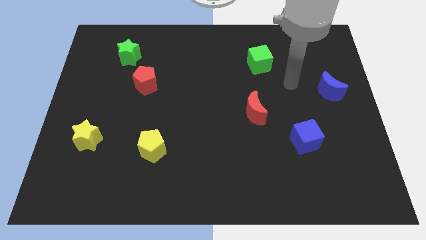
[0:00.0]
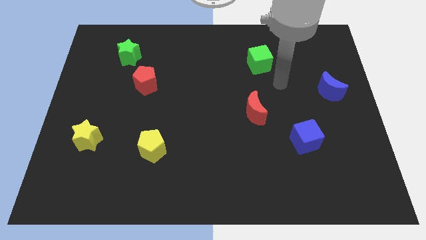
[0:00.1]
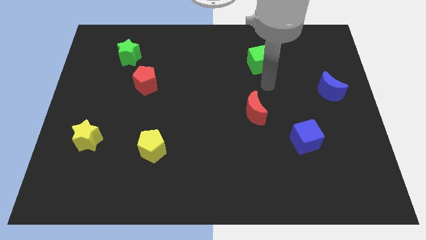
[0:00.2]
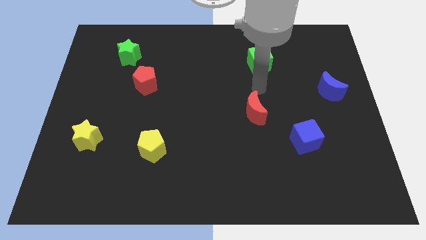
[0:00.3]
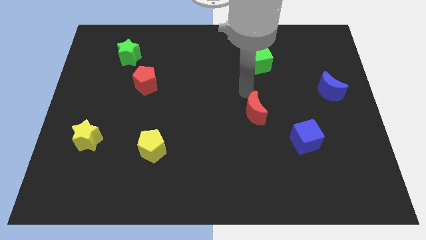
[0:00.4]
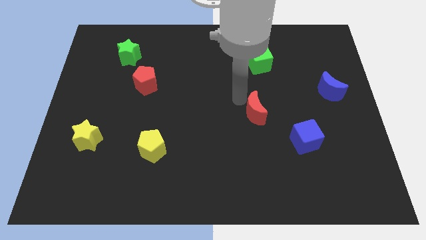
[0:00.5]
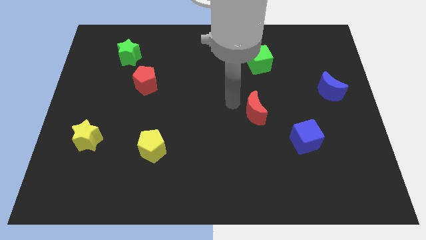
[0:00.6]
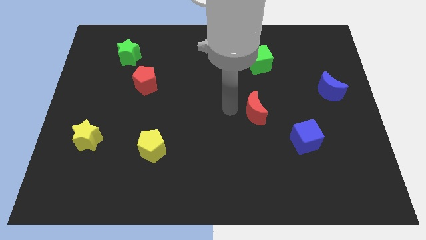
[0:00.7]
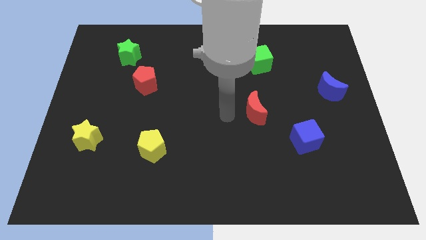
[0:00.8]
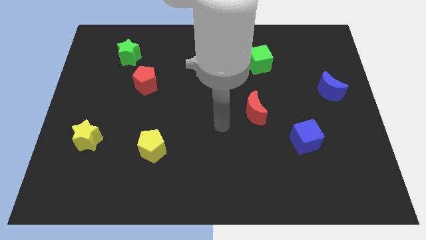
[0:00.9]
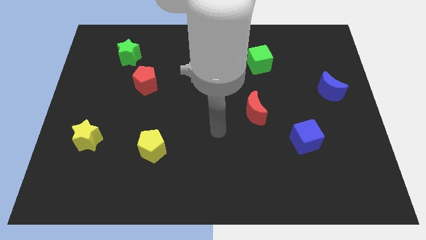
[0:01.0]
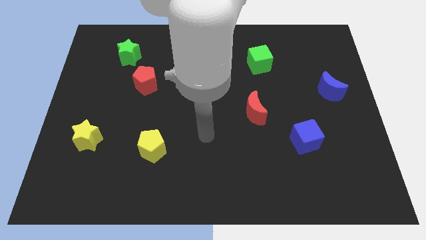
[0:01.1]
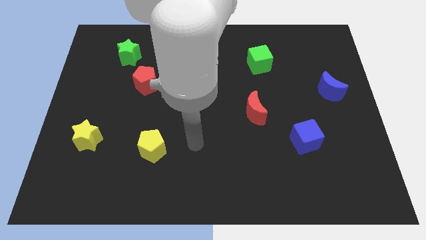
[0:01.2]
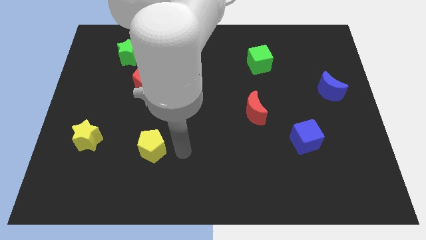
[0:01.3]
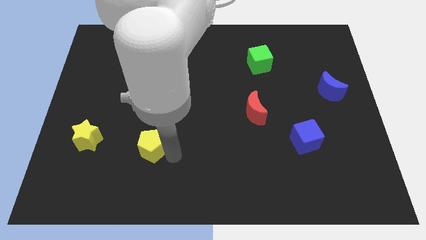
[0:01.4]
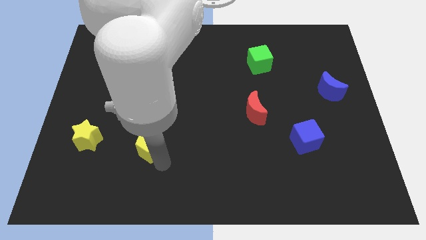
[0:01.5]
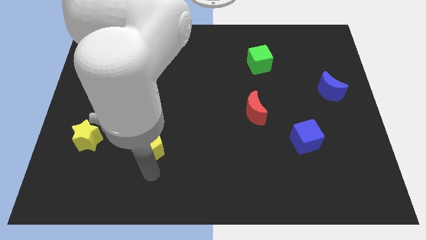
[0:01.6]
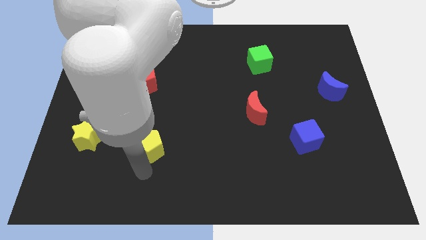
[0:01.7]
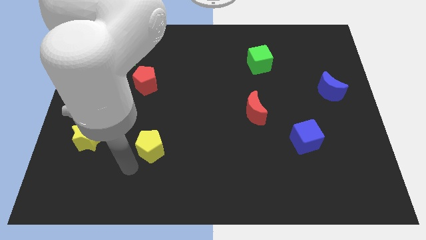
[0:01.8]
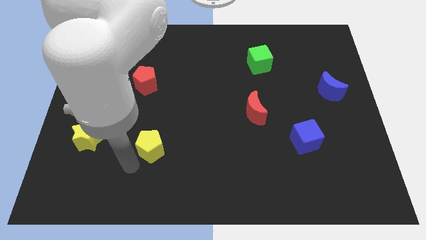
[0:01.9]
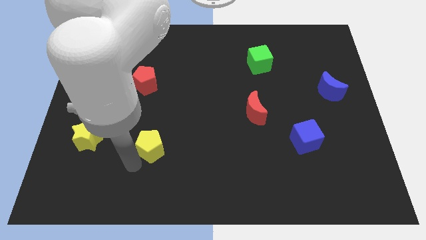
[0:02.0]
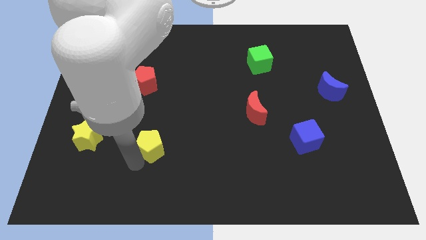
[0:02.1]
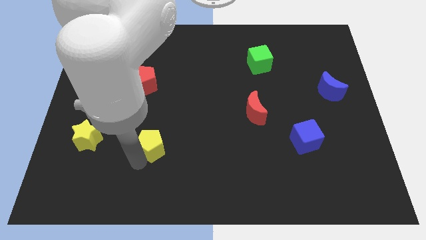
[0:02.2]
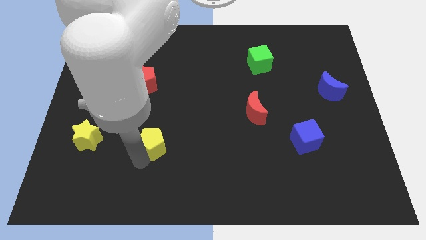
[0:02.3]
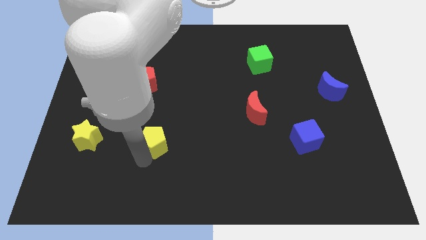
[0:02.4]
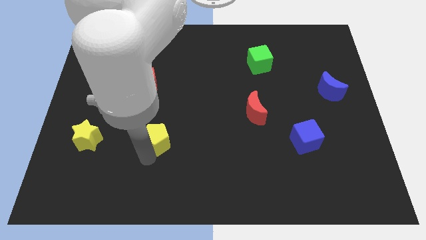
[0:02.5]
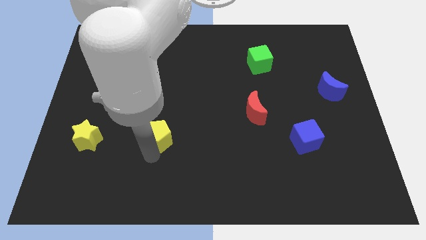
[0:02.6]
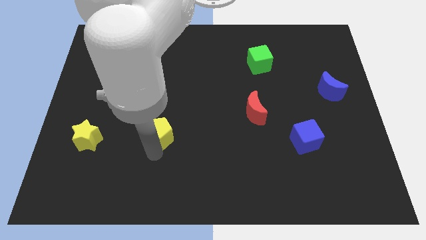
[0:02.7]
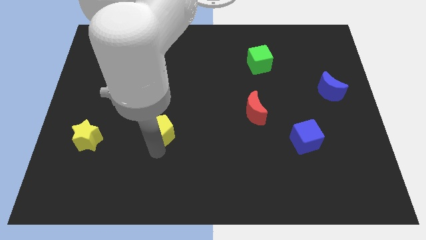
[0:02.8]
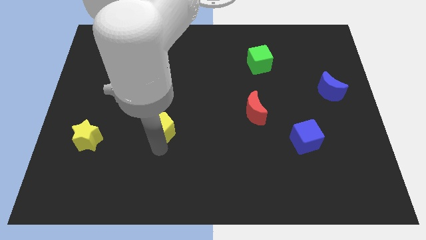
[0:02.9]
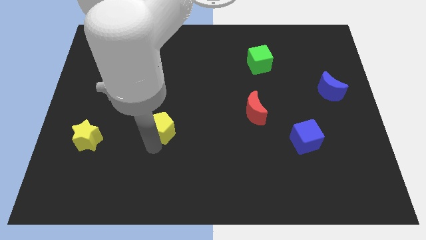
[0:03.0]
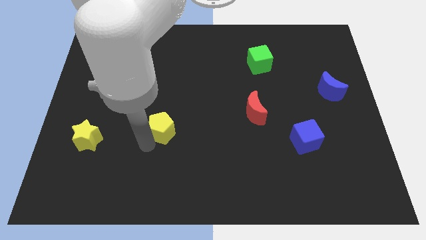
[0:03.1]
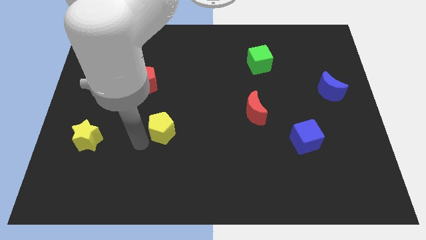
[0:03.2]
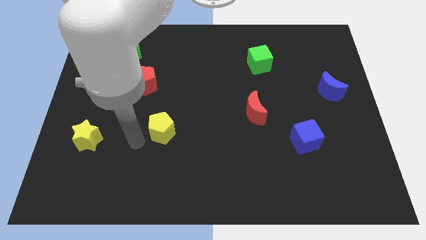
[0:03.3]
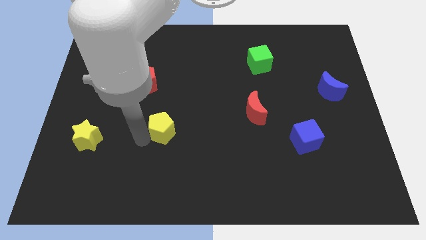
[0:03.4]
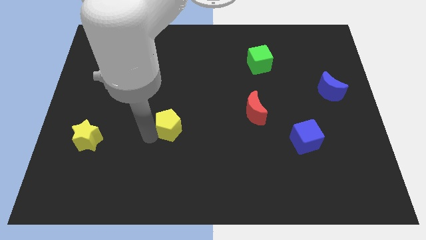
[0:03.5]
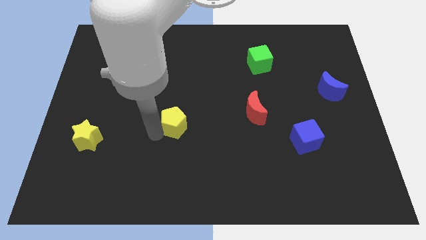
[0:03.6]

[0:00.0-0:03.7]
slide the yellow pentagon a little upwards and then to the right

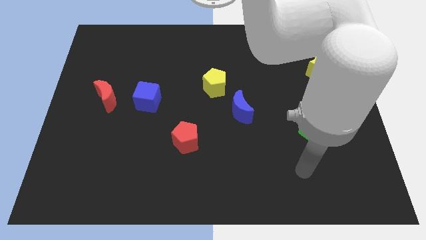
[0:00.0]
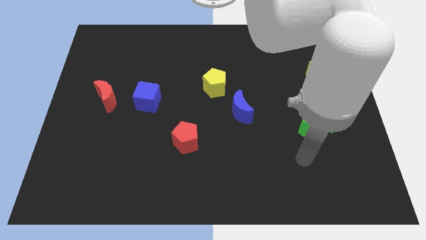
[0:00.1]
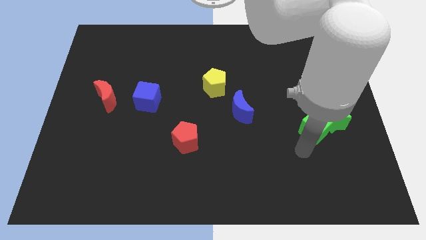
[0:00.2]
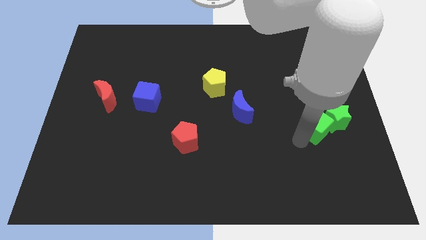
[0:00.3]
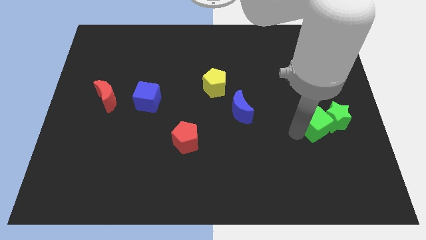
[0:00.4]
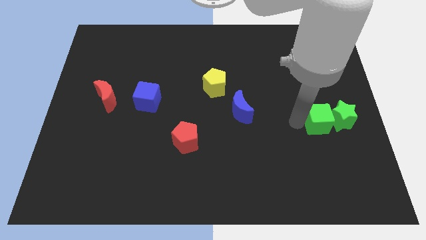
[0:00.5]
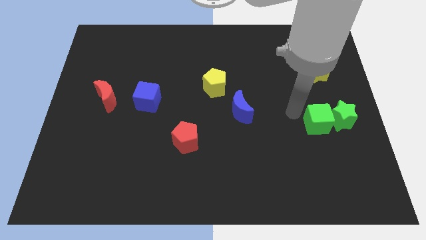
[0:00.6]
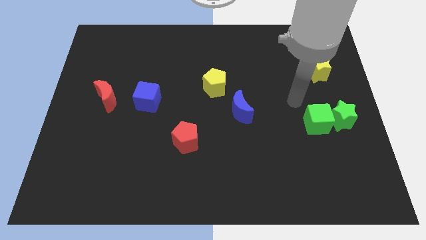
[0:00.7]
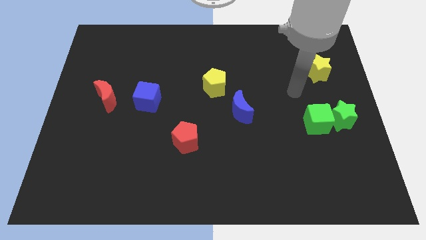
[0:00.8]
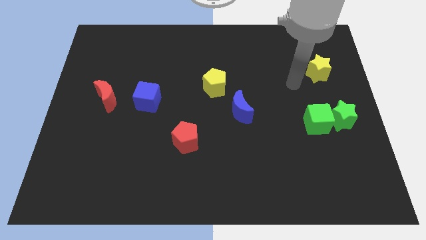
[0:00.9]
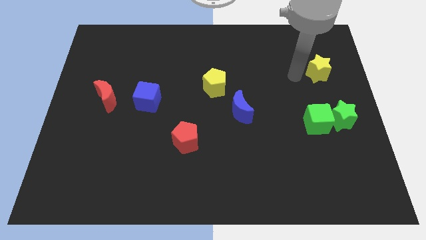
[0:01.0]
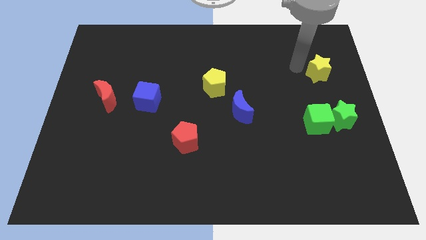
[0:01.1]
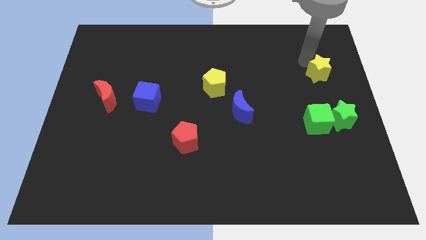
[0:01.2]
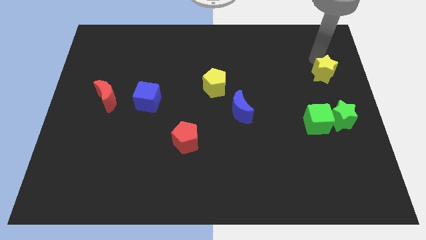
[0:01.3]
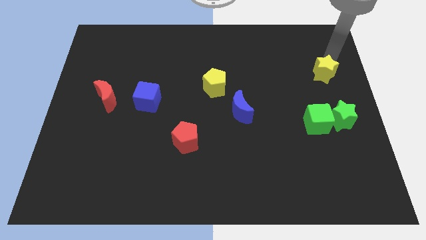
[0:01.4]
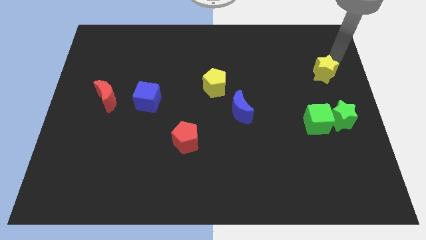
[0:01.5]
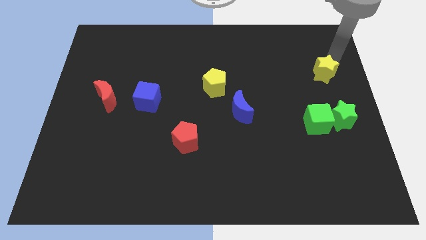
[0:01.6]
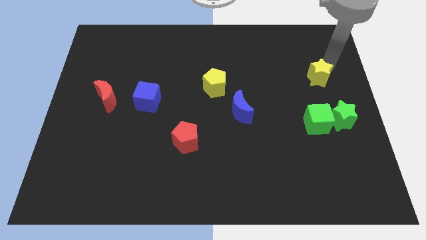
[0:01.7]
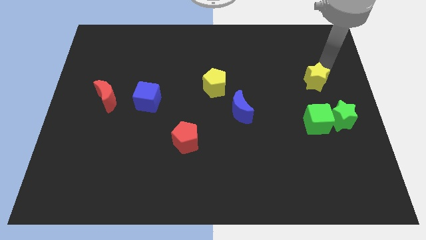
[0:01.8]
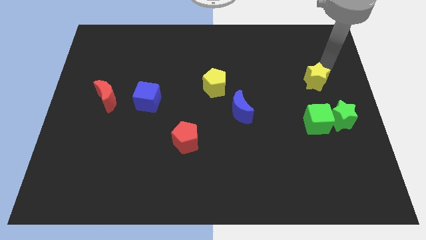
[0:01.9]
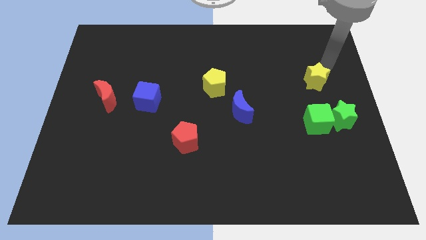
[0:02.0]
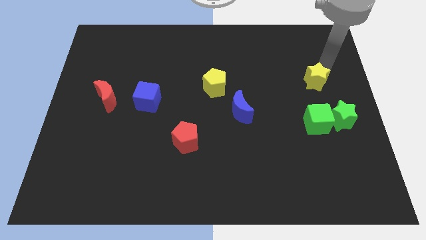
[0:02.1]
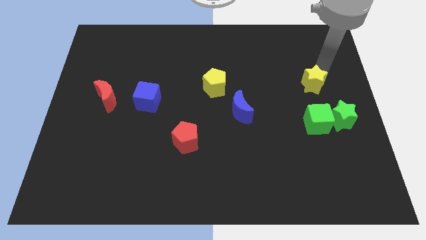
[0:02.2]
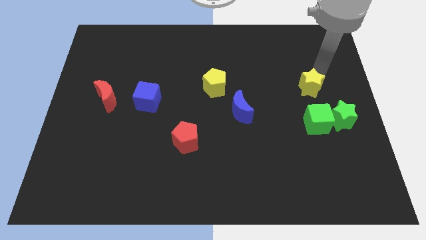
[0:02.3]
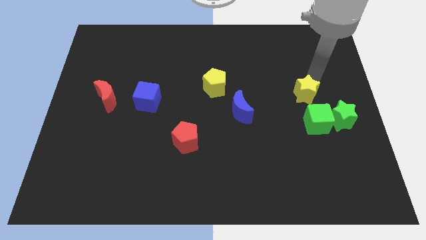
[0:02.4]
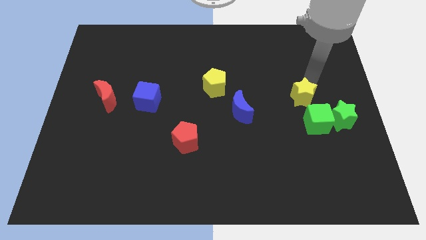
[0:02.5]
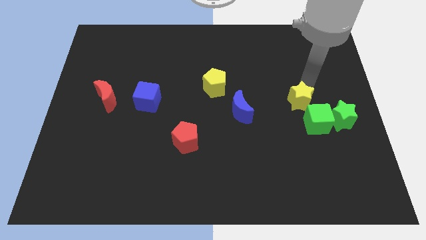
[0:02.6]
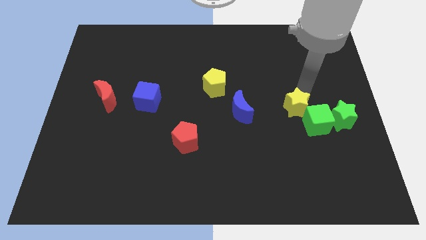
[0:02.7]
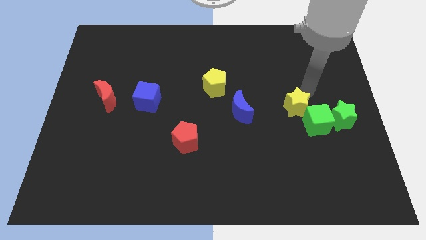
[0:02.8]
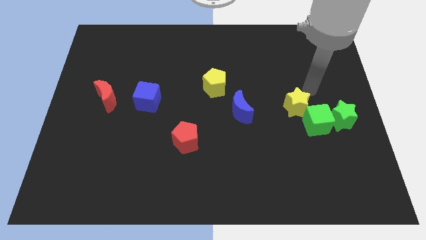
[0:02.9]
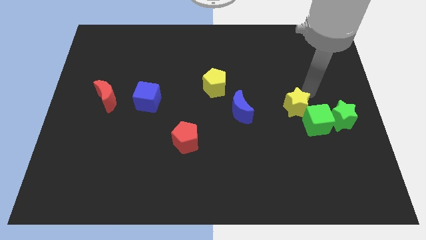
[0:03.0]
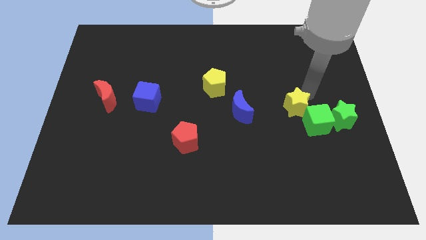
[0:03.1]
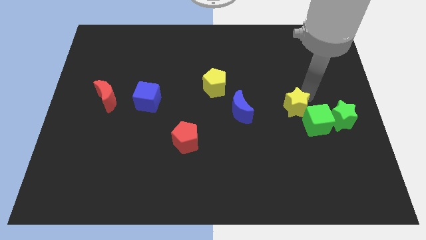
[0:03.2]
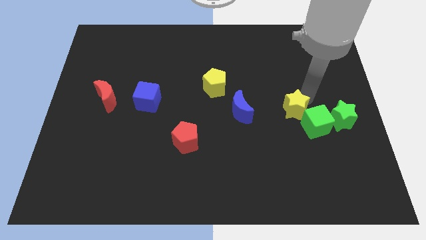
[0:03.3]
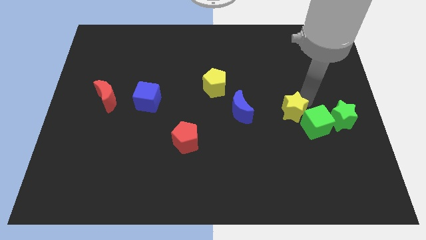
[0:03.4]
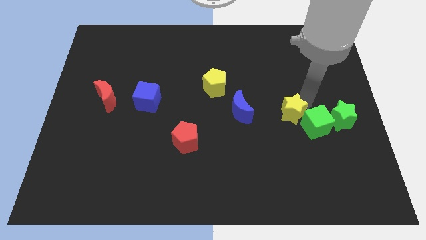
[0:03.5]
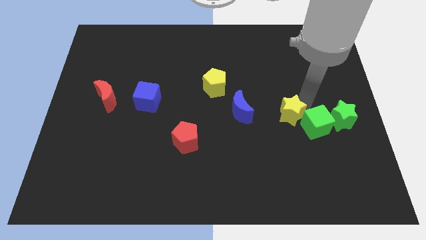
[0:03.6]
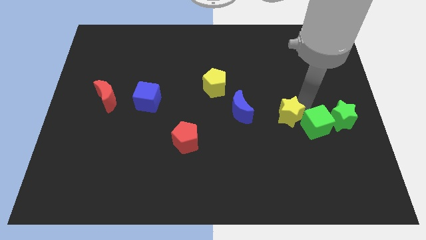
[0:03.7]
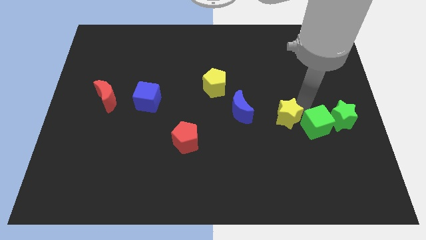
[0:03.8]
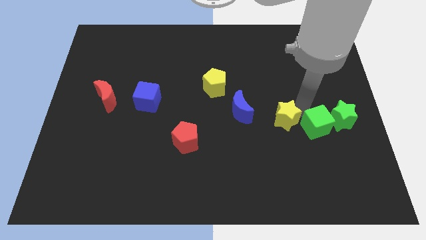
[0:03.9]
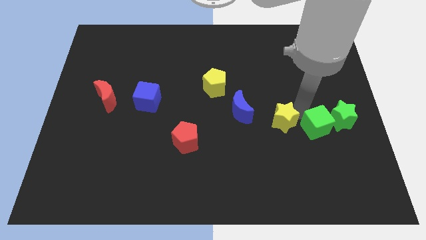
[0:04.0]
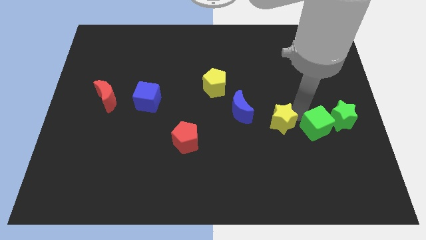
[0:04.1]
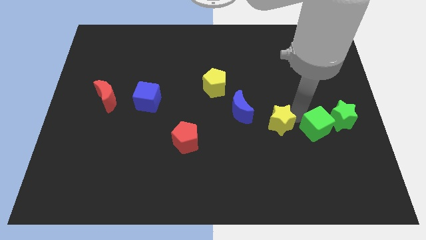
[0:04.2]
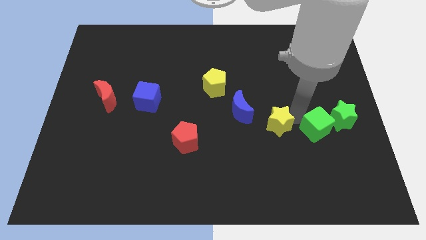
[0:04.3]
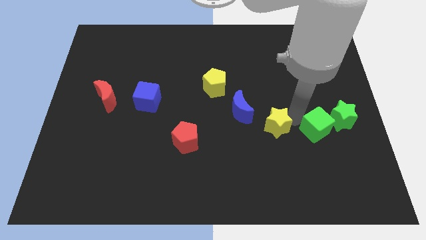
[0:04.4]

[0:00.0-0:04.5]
push the yellow star down and to the left
